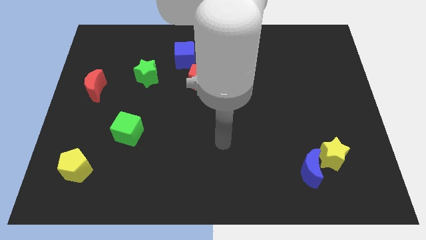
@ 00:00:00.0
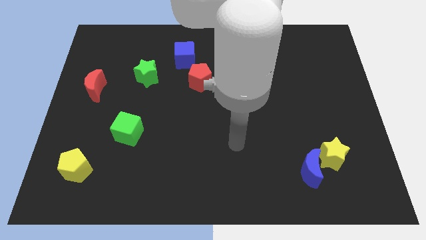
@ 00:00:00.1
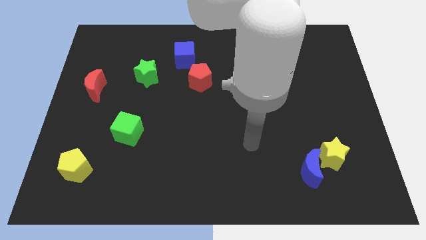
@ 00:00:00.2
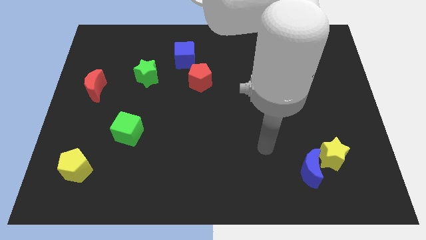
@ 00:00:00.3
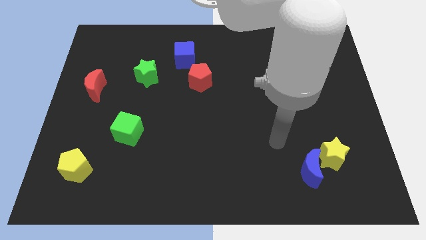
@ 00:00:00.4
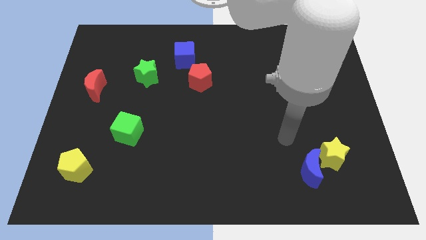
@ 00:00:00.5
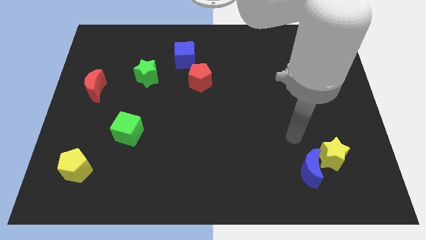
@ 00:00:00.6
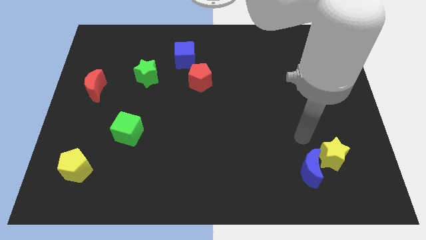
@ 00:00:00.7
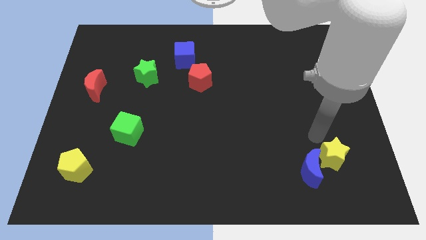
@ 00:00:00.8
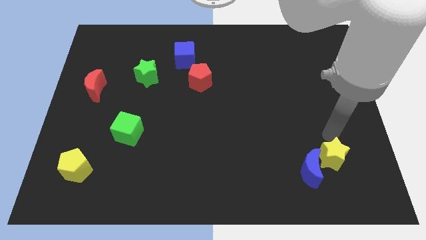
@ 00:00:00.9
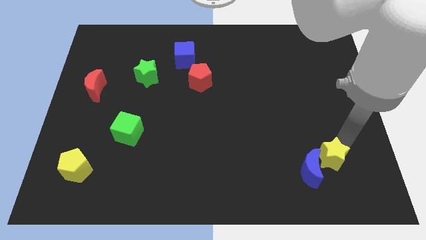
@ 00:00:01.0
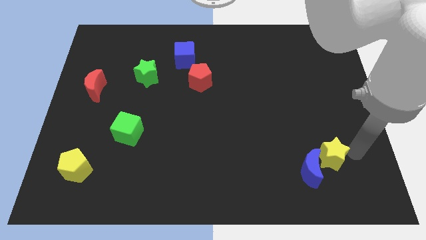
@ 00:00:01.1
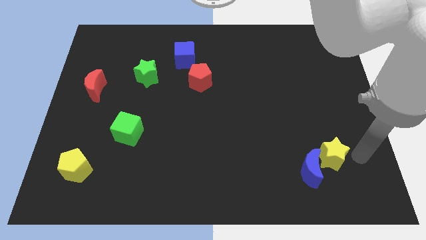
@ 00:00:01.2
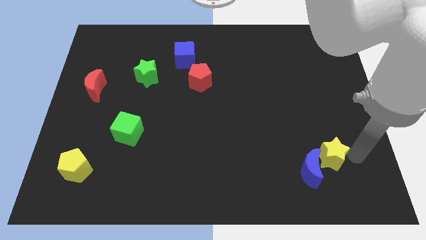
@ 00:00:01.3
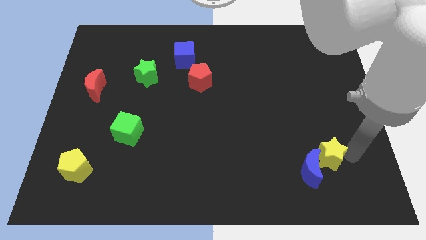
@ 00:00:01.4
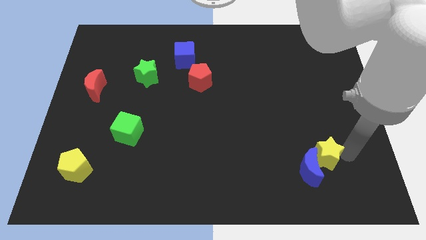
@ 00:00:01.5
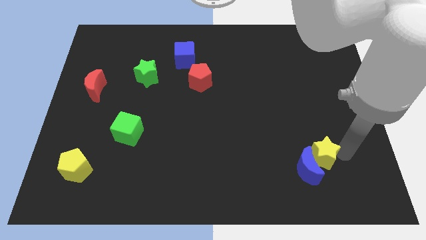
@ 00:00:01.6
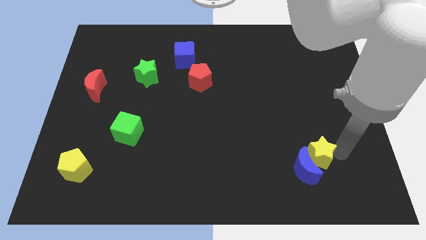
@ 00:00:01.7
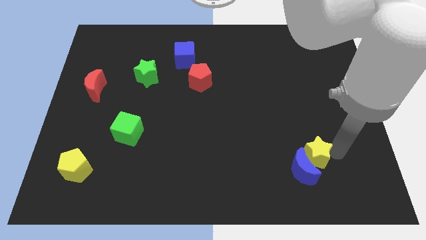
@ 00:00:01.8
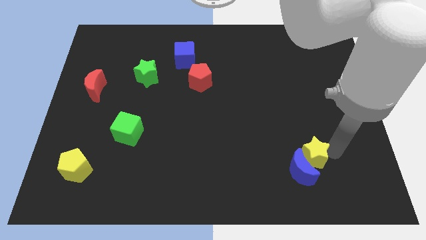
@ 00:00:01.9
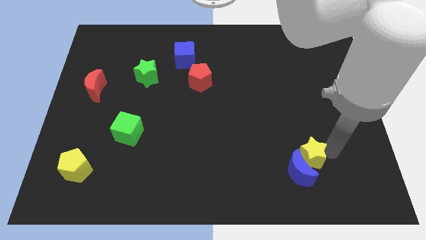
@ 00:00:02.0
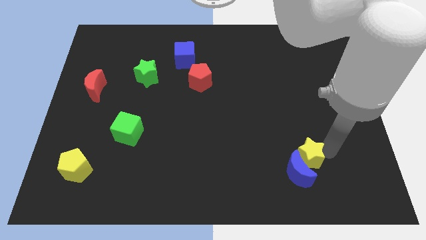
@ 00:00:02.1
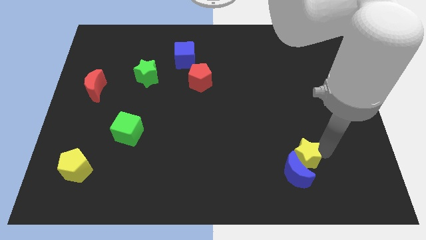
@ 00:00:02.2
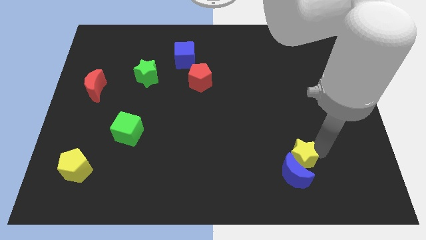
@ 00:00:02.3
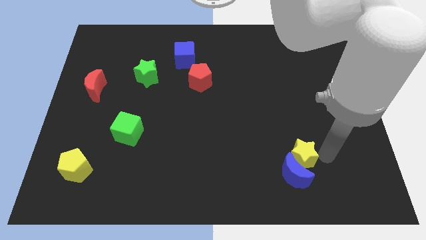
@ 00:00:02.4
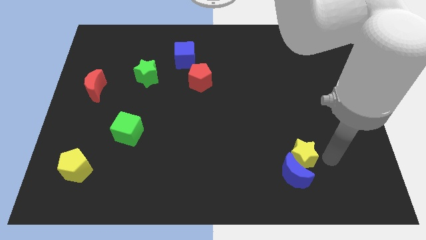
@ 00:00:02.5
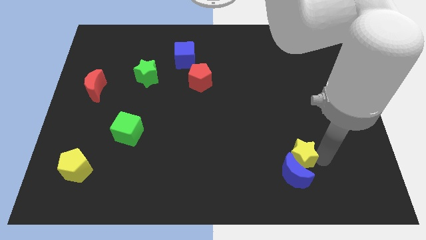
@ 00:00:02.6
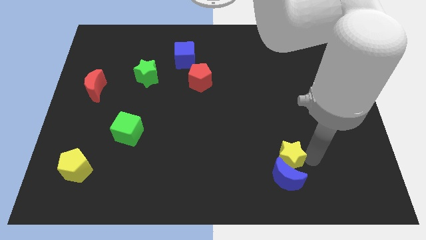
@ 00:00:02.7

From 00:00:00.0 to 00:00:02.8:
move the yellow star left a bit

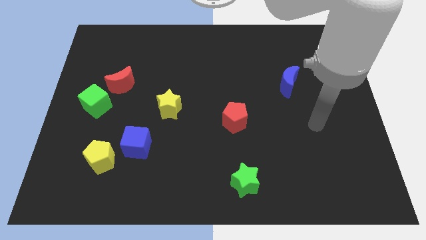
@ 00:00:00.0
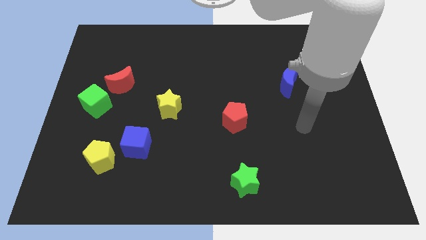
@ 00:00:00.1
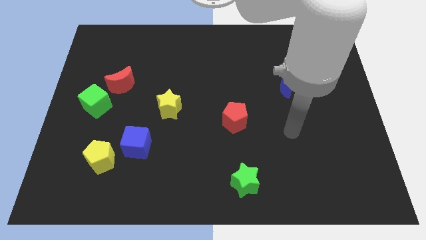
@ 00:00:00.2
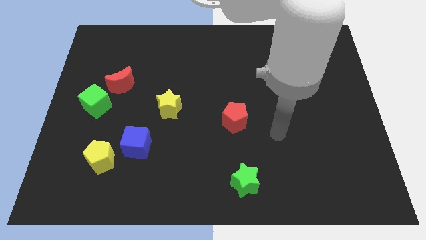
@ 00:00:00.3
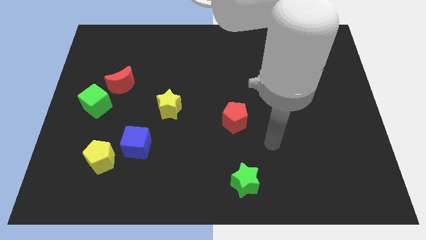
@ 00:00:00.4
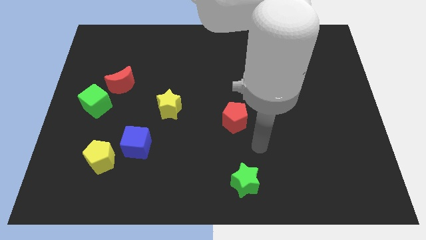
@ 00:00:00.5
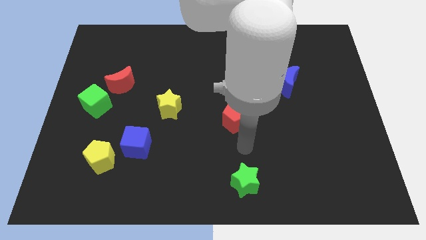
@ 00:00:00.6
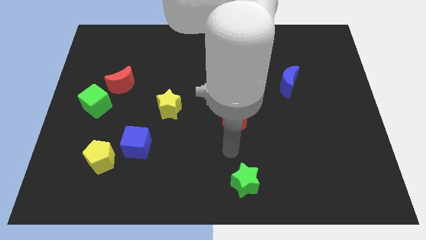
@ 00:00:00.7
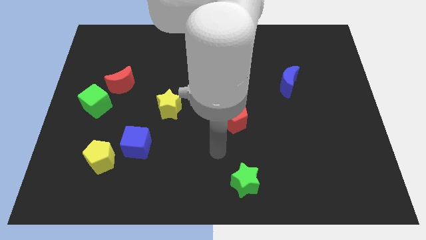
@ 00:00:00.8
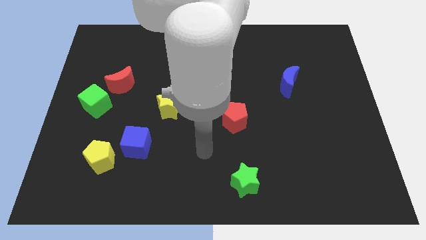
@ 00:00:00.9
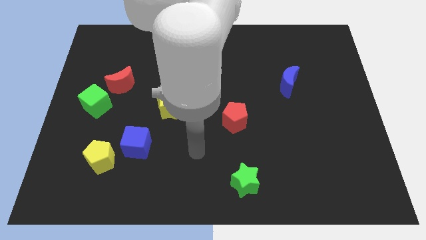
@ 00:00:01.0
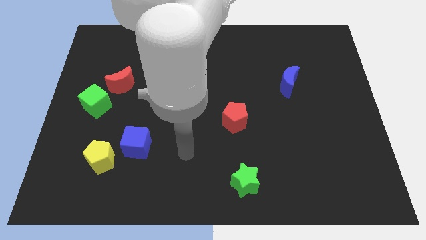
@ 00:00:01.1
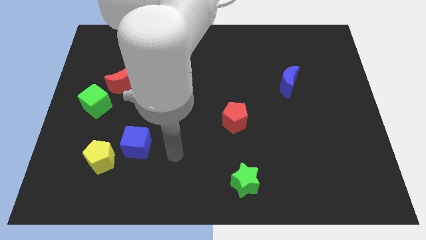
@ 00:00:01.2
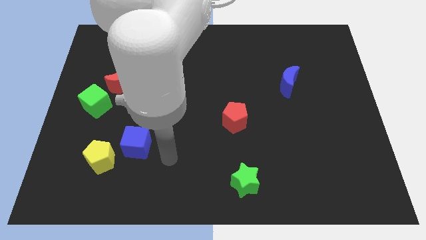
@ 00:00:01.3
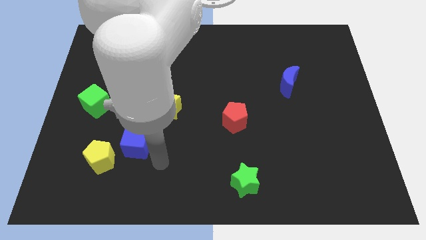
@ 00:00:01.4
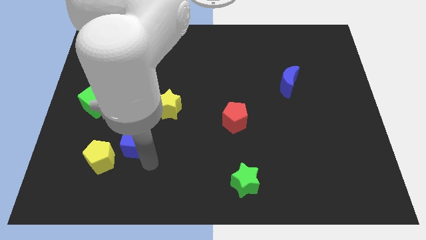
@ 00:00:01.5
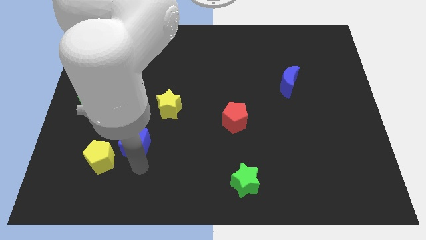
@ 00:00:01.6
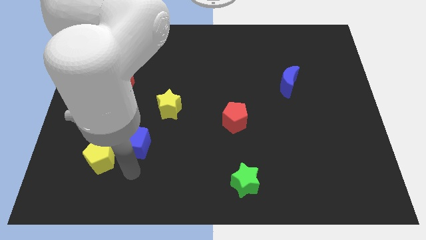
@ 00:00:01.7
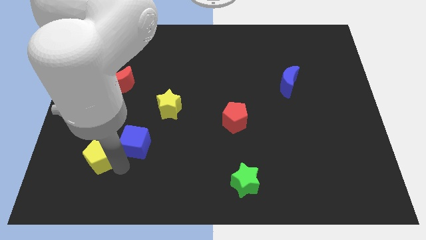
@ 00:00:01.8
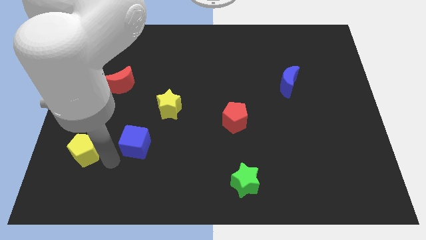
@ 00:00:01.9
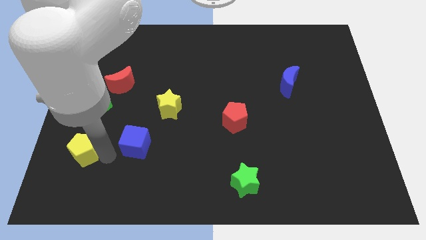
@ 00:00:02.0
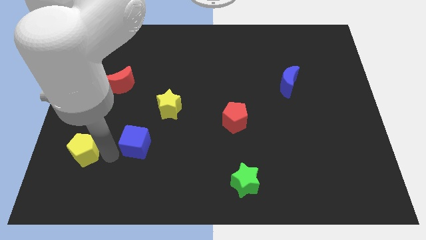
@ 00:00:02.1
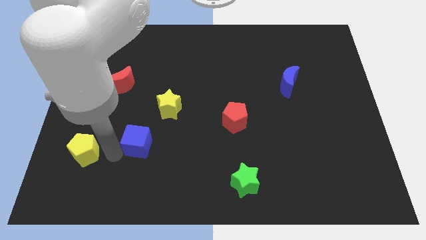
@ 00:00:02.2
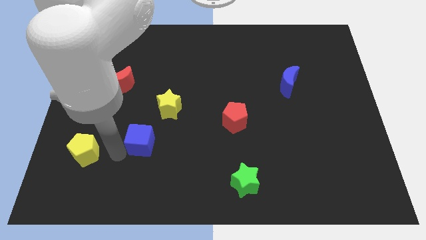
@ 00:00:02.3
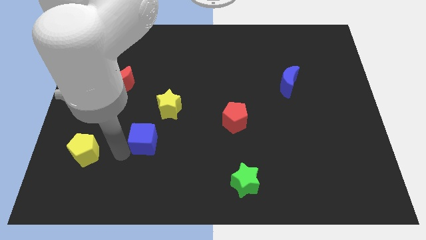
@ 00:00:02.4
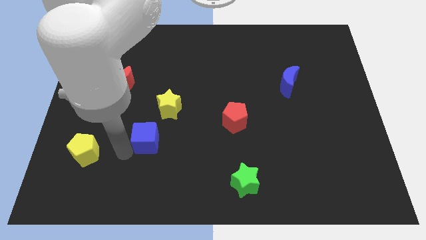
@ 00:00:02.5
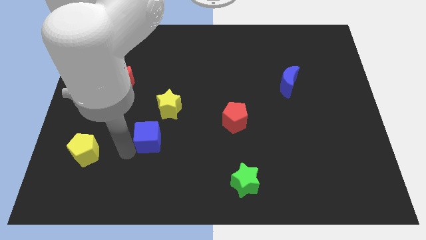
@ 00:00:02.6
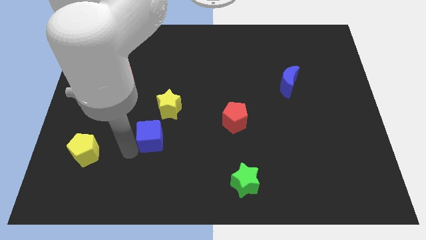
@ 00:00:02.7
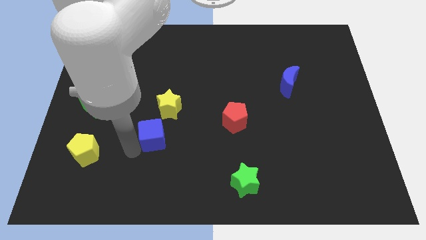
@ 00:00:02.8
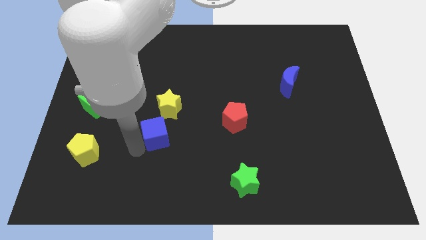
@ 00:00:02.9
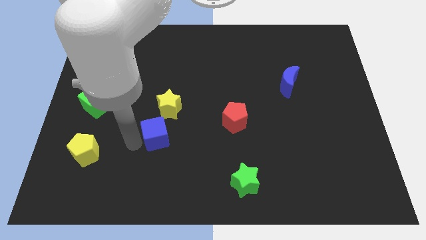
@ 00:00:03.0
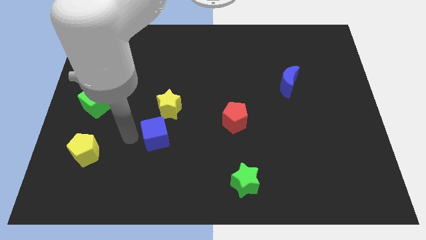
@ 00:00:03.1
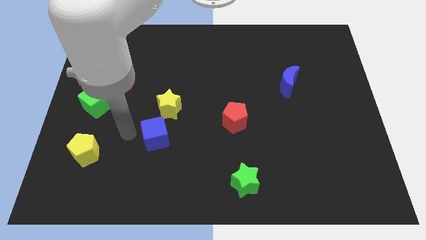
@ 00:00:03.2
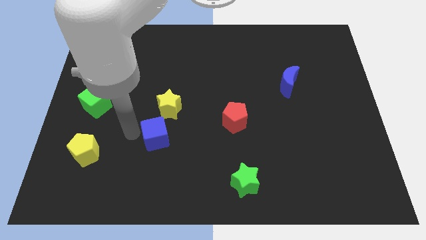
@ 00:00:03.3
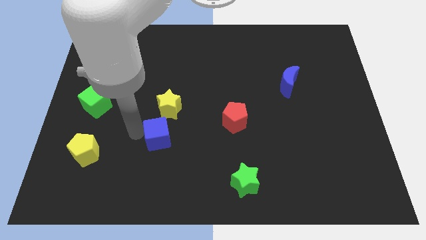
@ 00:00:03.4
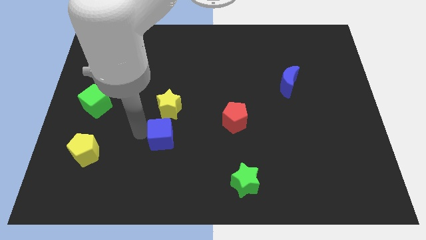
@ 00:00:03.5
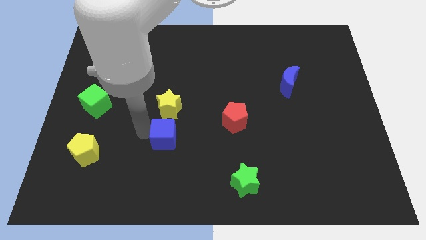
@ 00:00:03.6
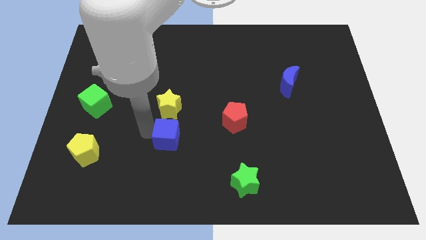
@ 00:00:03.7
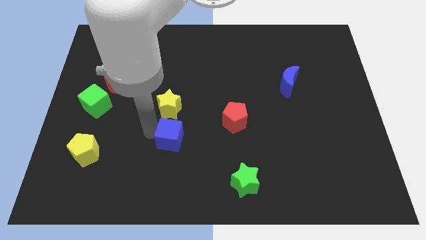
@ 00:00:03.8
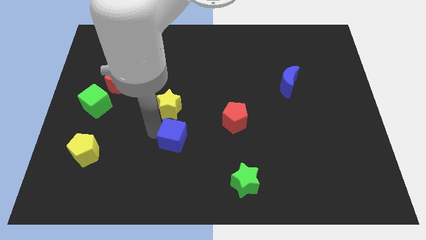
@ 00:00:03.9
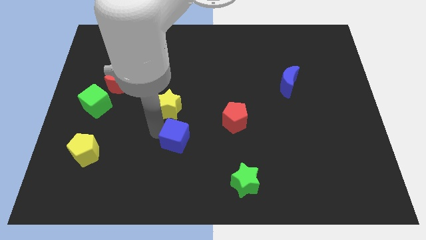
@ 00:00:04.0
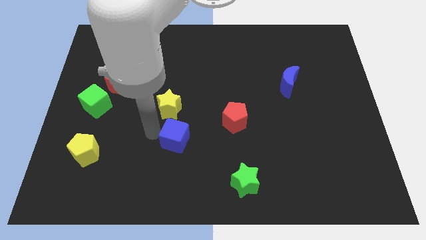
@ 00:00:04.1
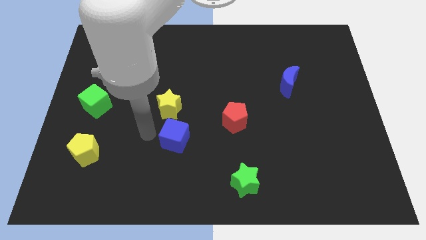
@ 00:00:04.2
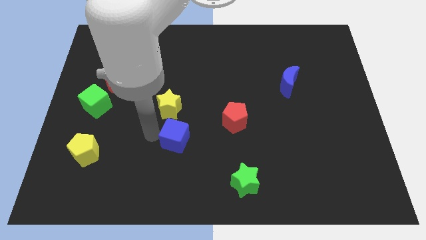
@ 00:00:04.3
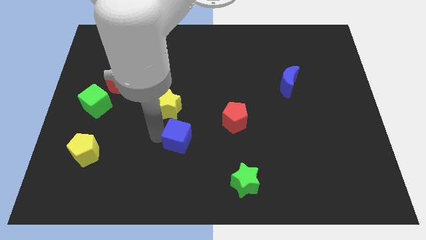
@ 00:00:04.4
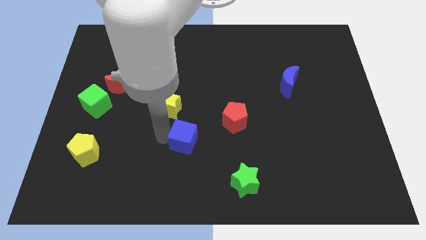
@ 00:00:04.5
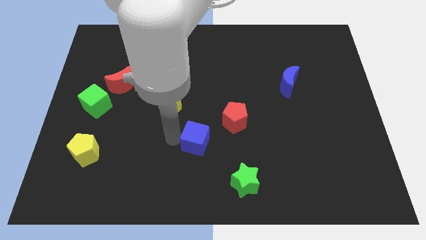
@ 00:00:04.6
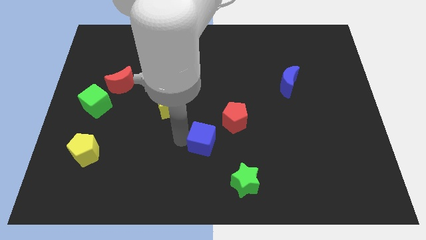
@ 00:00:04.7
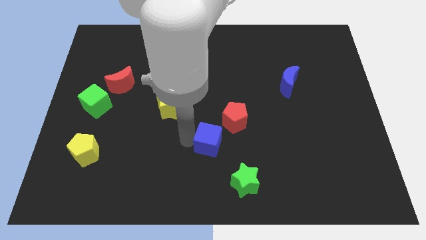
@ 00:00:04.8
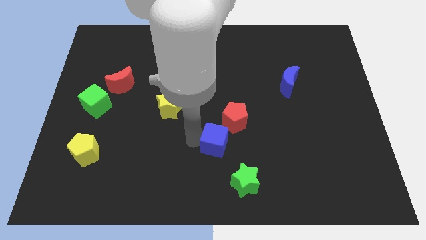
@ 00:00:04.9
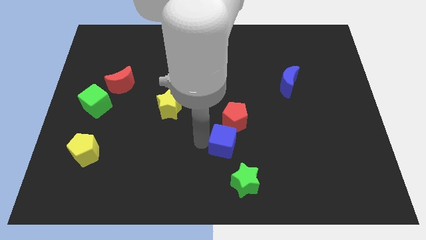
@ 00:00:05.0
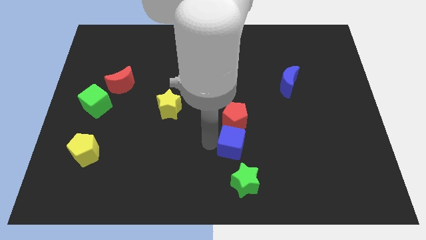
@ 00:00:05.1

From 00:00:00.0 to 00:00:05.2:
push the blue cube right

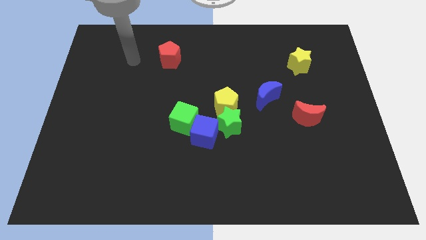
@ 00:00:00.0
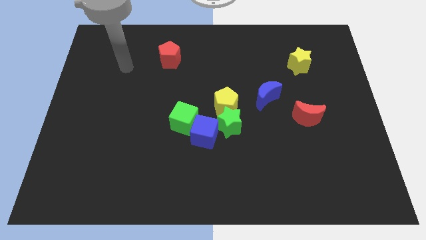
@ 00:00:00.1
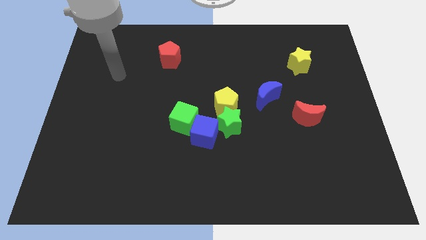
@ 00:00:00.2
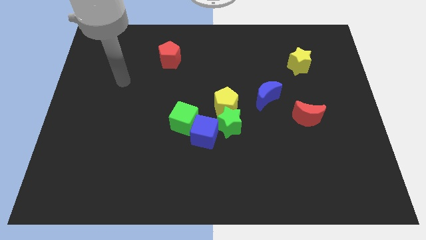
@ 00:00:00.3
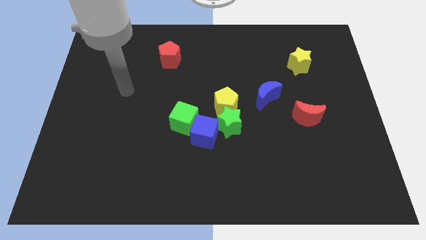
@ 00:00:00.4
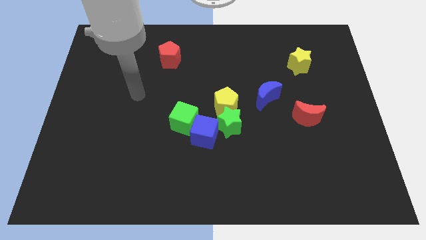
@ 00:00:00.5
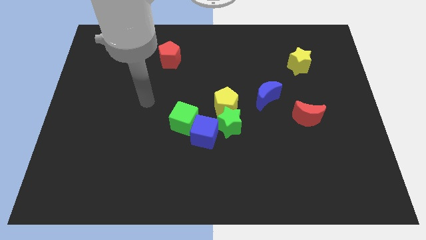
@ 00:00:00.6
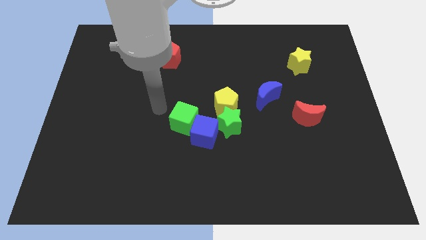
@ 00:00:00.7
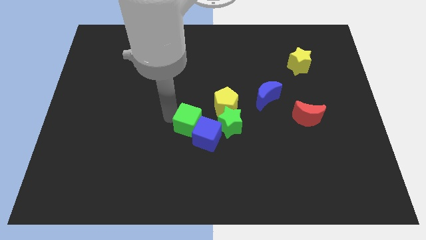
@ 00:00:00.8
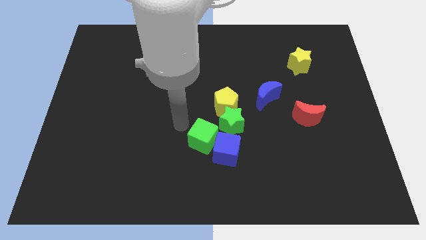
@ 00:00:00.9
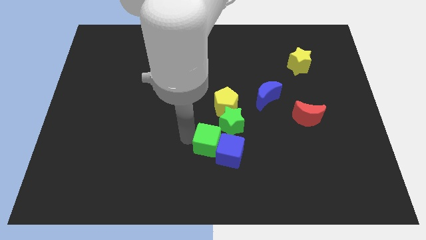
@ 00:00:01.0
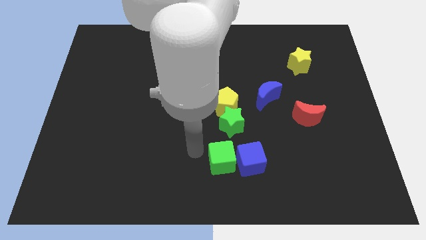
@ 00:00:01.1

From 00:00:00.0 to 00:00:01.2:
slightly push the blue cube right
